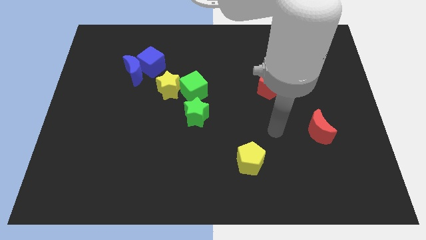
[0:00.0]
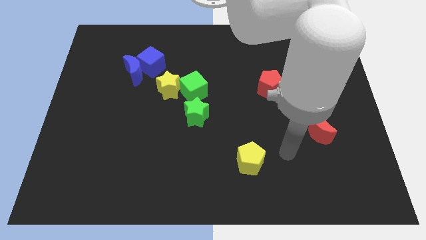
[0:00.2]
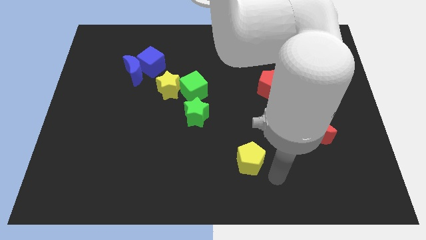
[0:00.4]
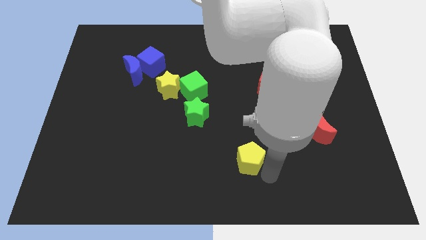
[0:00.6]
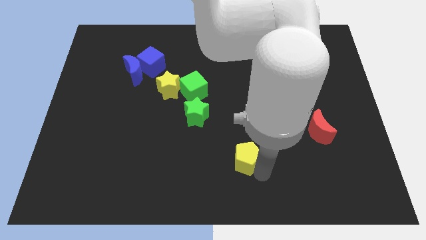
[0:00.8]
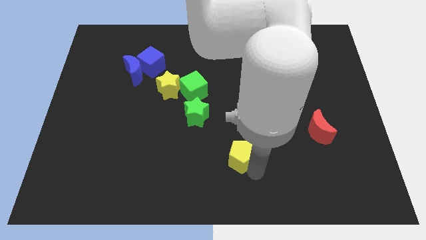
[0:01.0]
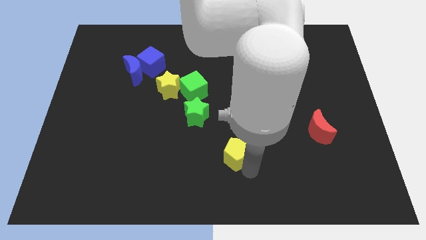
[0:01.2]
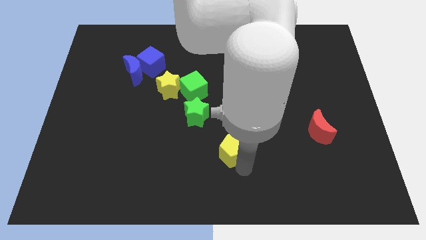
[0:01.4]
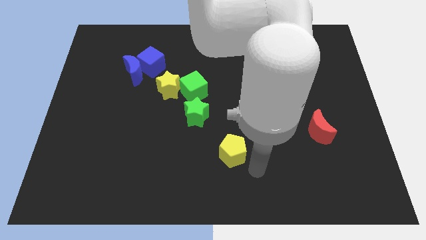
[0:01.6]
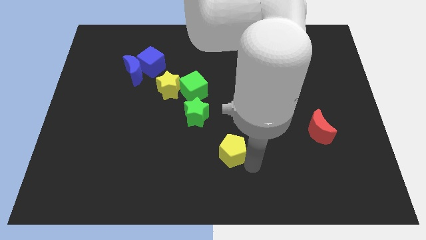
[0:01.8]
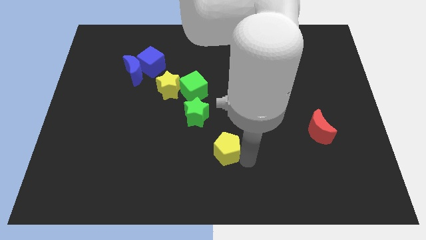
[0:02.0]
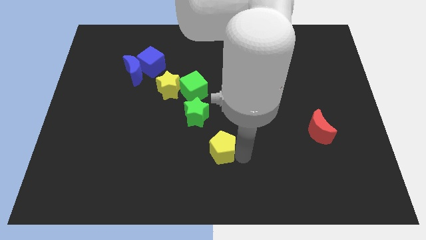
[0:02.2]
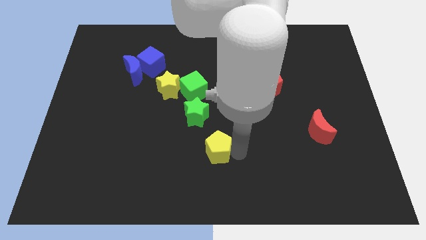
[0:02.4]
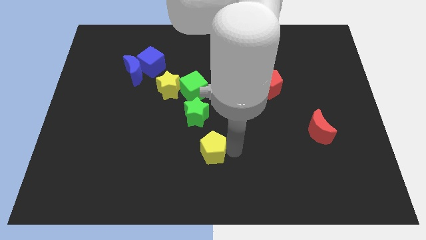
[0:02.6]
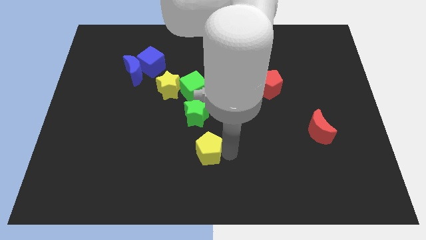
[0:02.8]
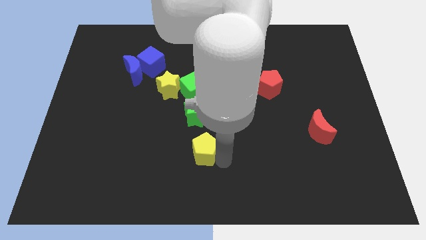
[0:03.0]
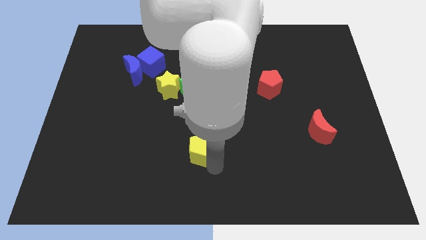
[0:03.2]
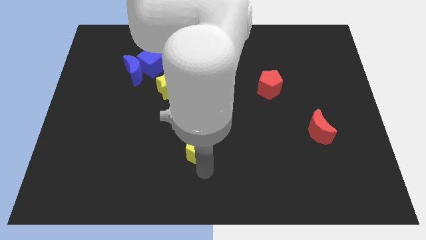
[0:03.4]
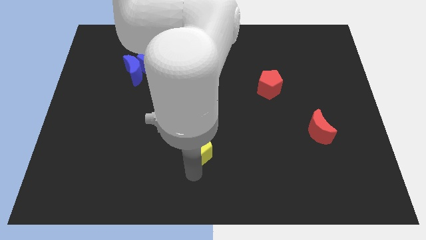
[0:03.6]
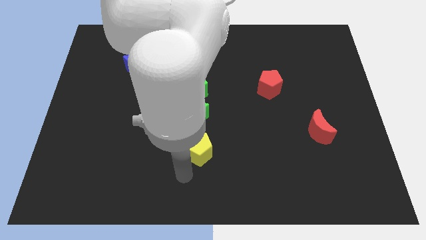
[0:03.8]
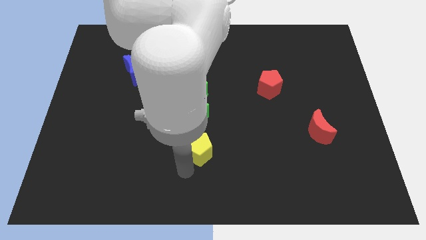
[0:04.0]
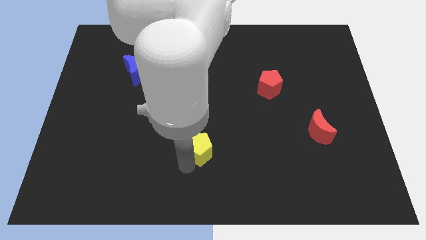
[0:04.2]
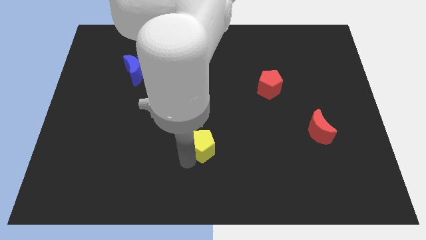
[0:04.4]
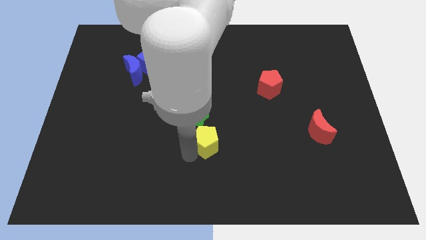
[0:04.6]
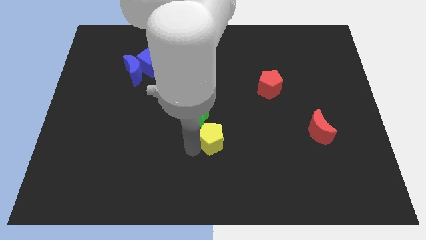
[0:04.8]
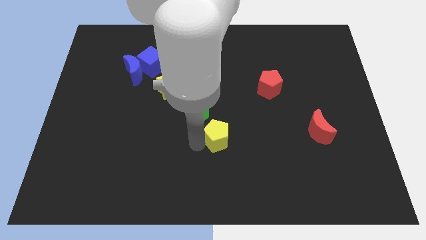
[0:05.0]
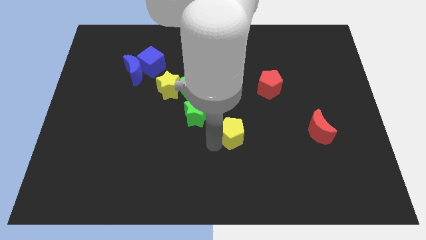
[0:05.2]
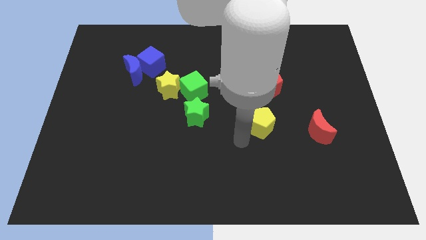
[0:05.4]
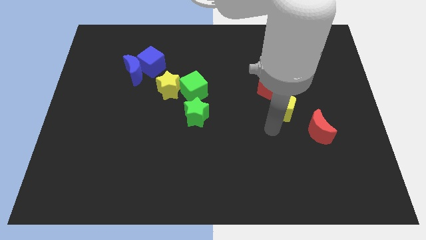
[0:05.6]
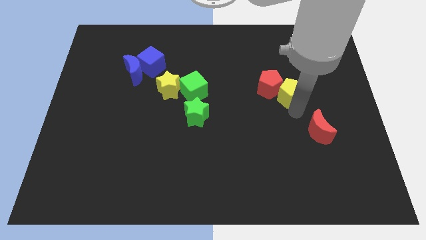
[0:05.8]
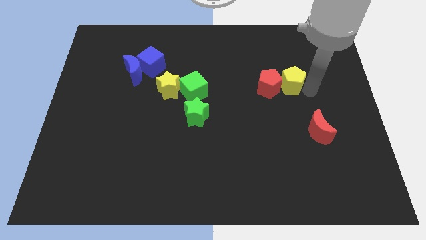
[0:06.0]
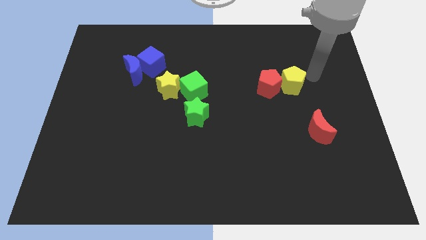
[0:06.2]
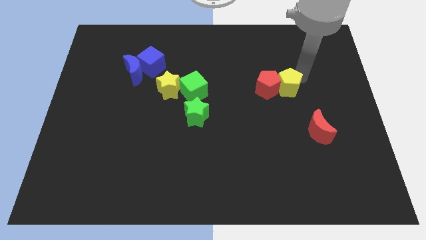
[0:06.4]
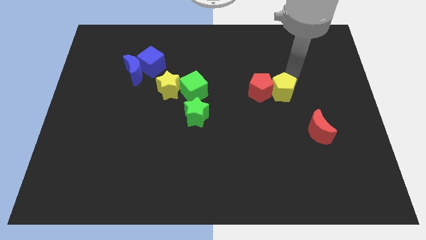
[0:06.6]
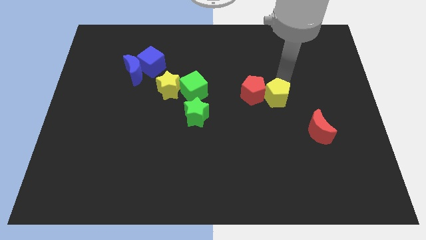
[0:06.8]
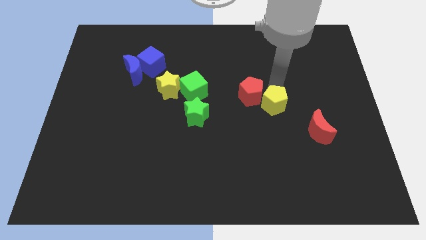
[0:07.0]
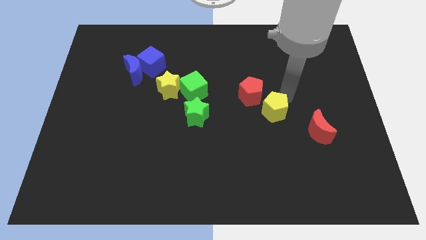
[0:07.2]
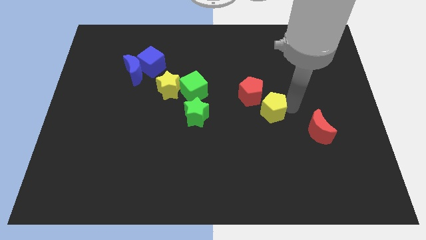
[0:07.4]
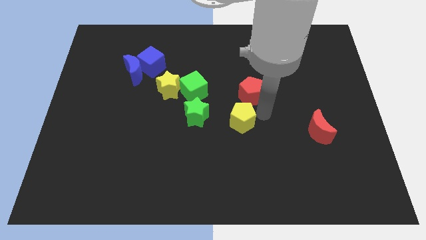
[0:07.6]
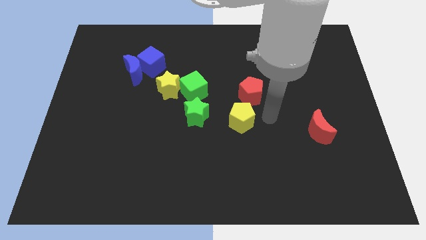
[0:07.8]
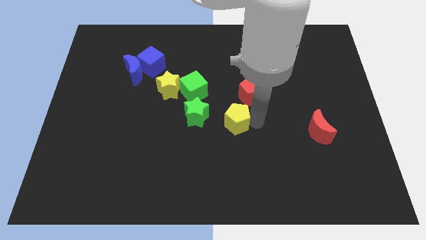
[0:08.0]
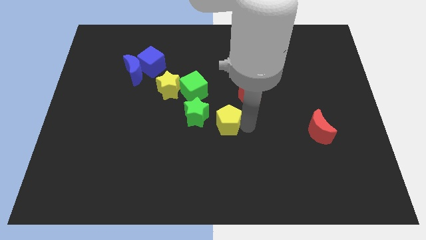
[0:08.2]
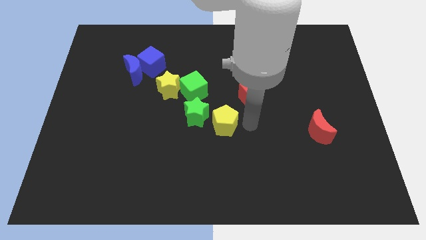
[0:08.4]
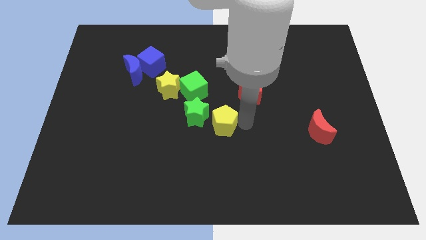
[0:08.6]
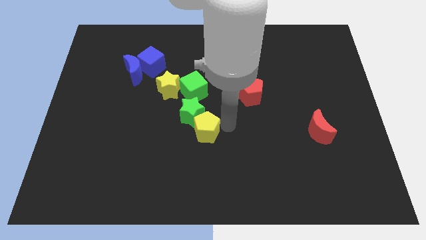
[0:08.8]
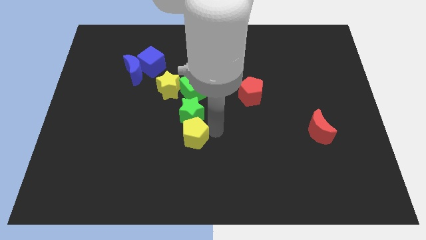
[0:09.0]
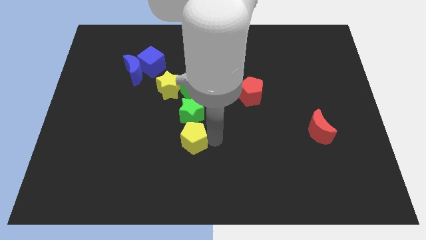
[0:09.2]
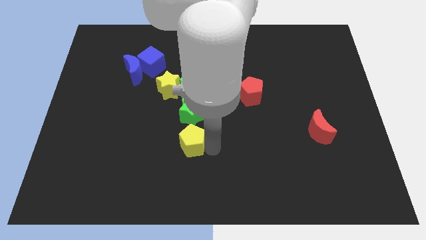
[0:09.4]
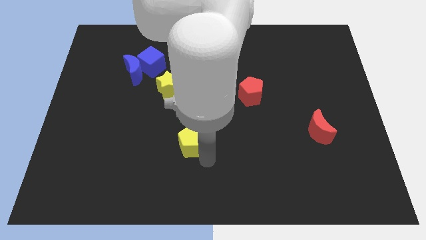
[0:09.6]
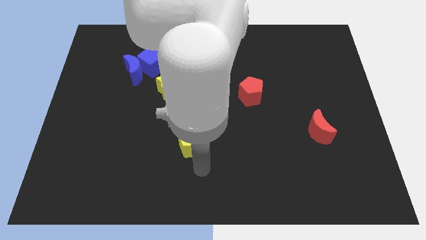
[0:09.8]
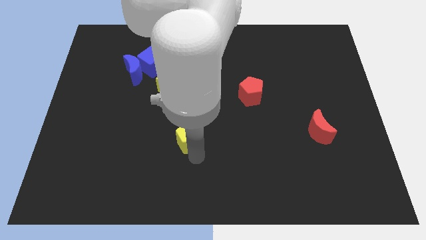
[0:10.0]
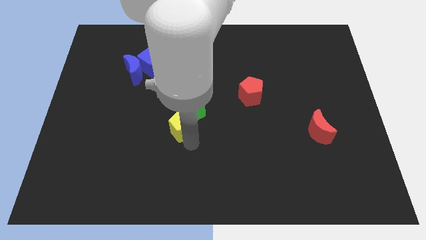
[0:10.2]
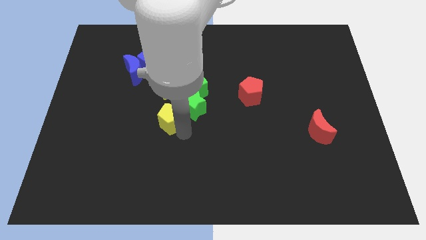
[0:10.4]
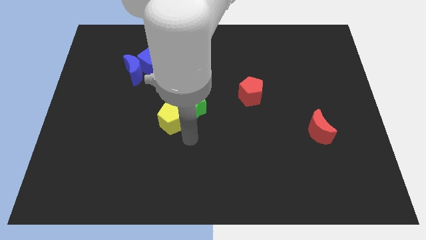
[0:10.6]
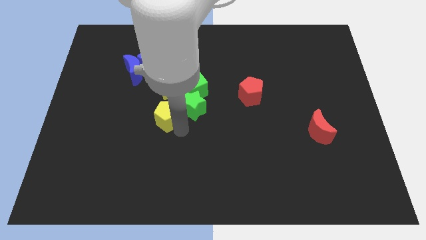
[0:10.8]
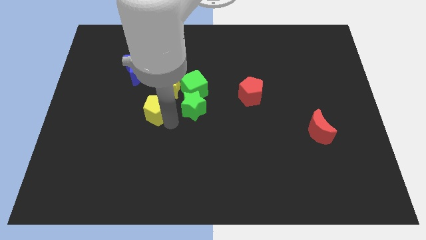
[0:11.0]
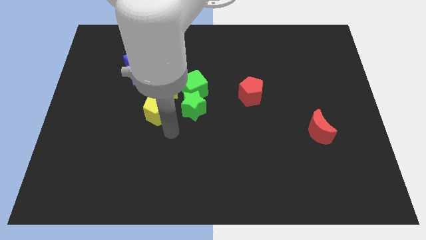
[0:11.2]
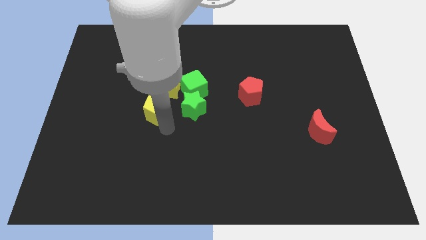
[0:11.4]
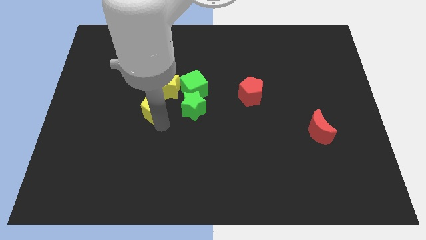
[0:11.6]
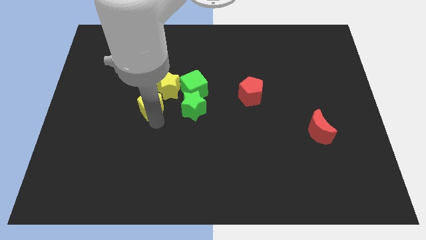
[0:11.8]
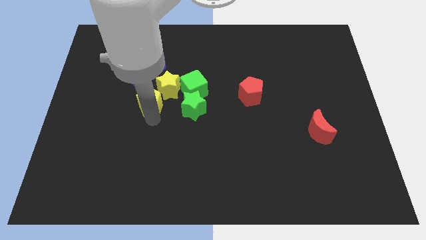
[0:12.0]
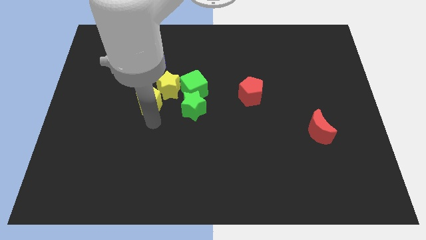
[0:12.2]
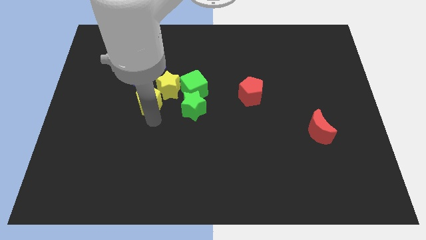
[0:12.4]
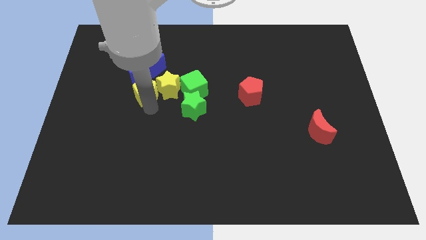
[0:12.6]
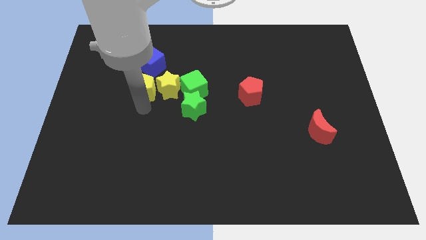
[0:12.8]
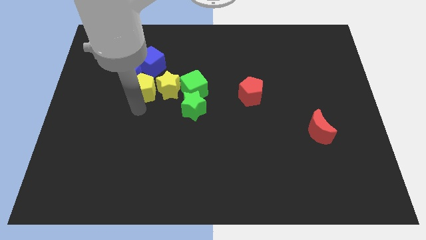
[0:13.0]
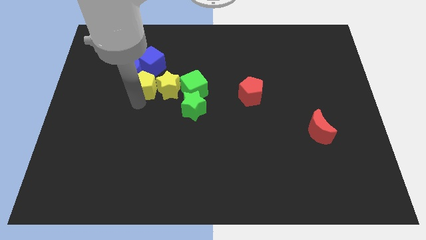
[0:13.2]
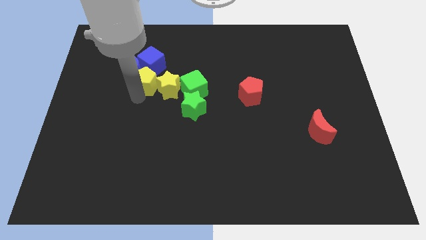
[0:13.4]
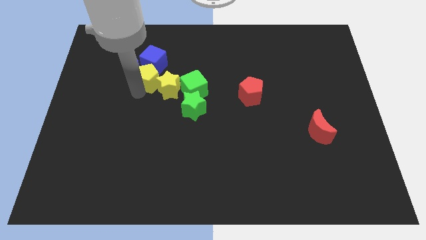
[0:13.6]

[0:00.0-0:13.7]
move the yellow pentagon next to the blue cube

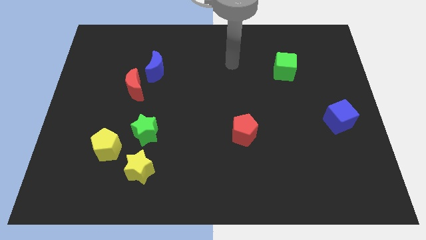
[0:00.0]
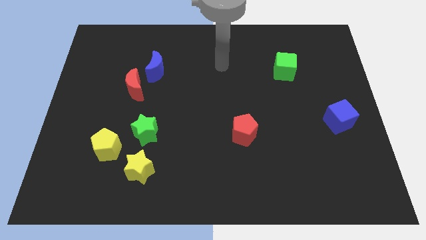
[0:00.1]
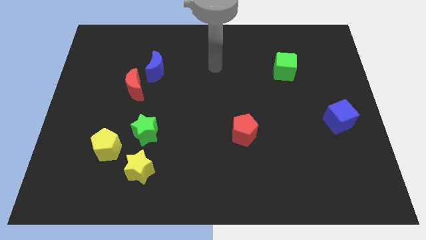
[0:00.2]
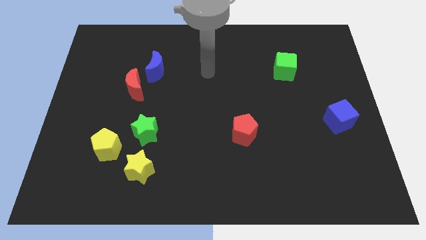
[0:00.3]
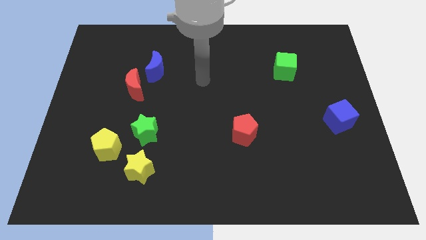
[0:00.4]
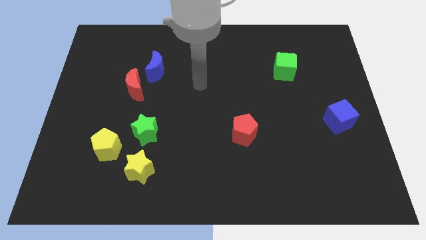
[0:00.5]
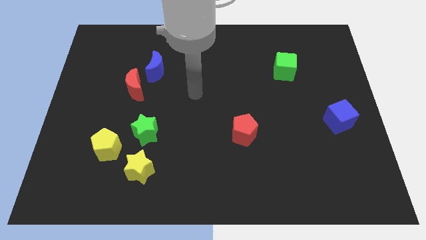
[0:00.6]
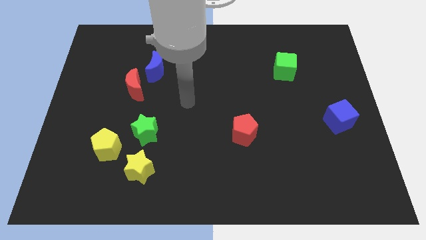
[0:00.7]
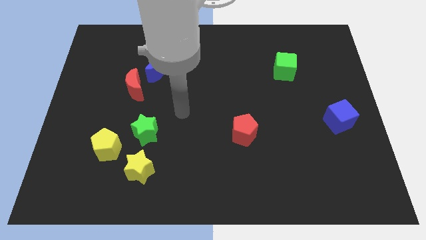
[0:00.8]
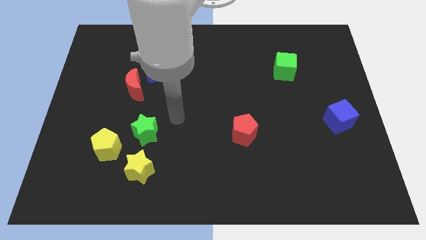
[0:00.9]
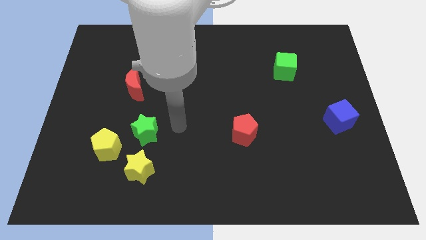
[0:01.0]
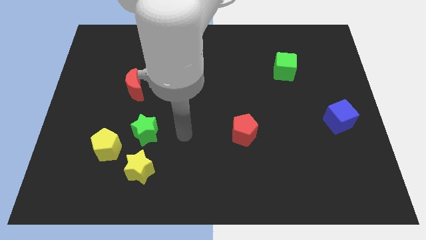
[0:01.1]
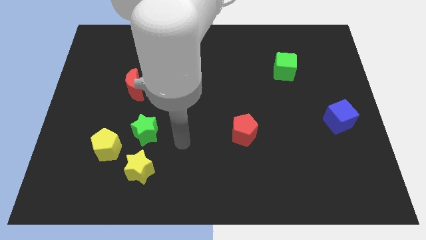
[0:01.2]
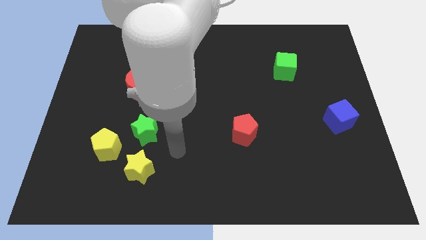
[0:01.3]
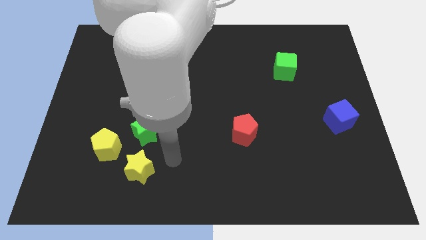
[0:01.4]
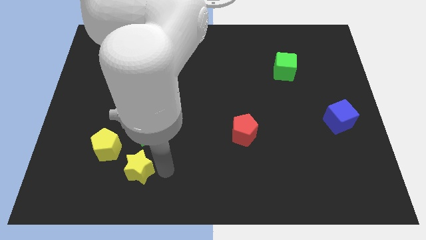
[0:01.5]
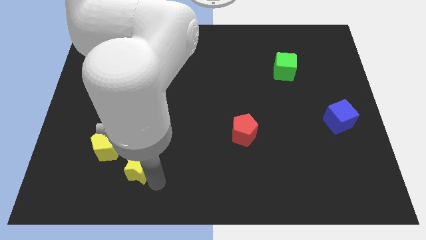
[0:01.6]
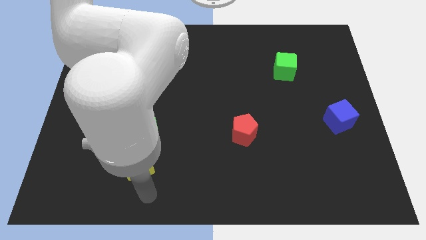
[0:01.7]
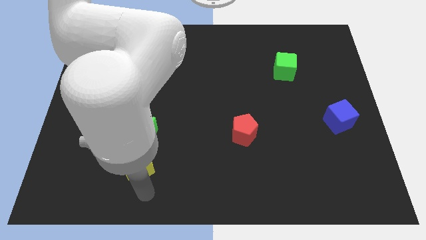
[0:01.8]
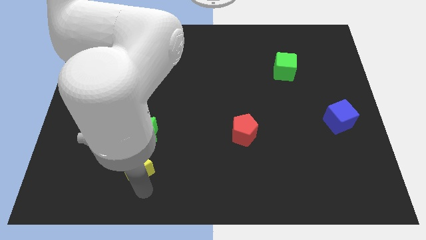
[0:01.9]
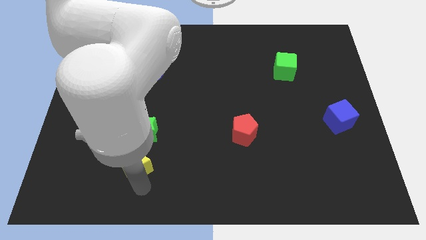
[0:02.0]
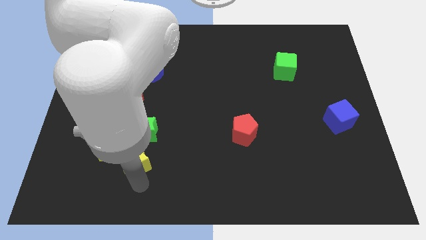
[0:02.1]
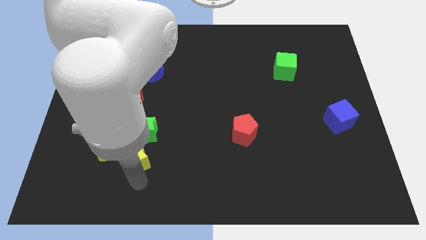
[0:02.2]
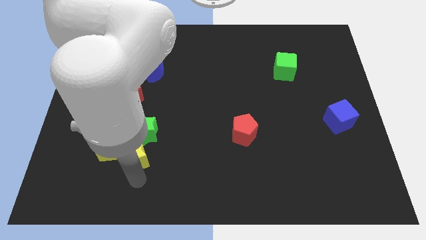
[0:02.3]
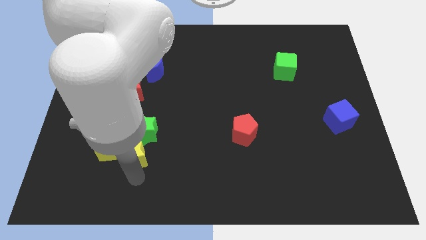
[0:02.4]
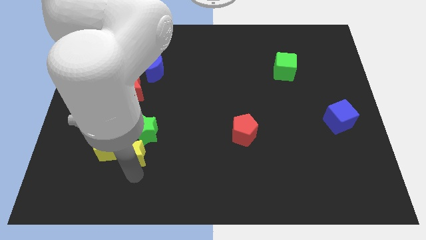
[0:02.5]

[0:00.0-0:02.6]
move the yellow star close to the green star
